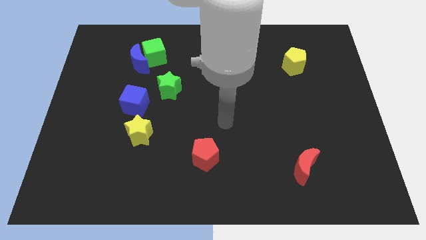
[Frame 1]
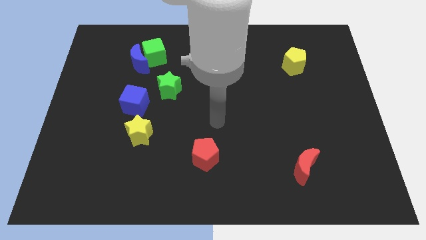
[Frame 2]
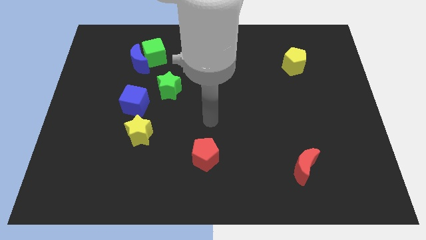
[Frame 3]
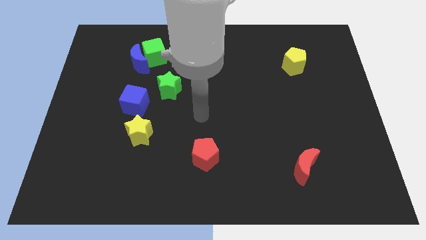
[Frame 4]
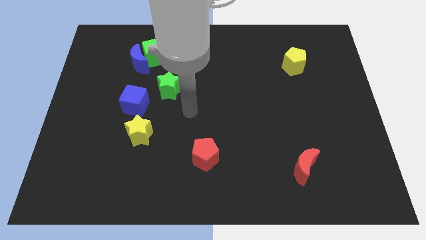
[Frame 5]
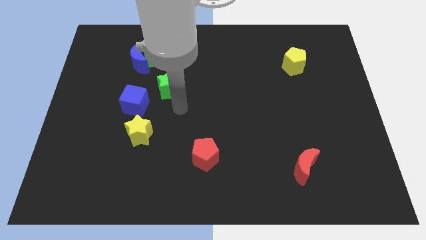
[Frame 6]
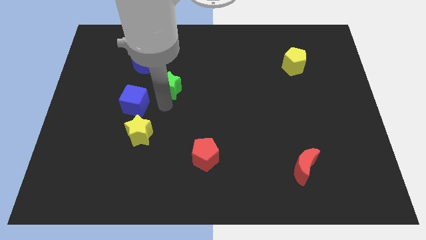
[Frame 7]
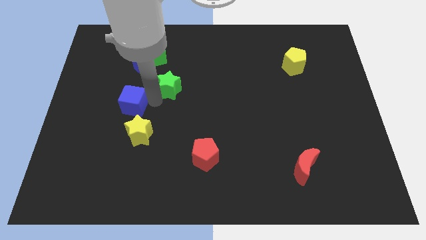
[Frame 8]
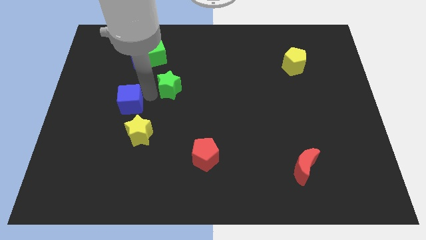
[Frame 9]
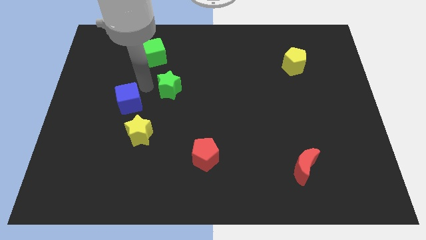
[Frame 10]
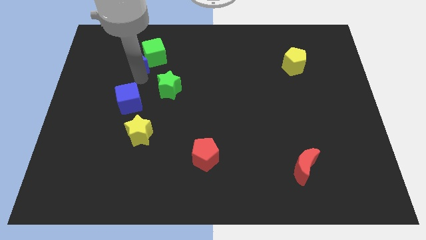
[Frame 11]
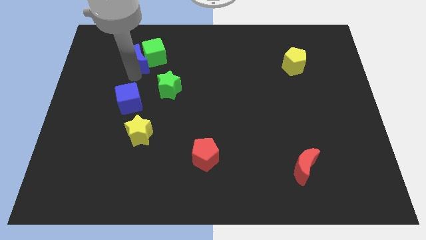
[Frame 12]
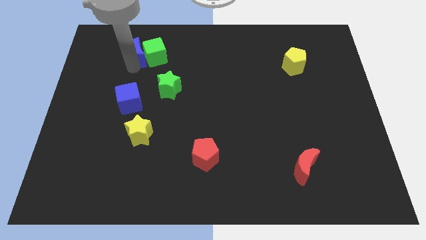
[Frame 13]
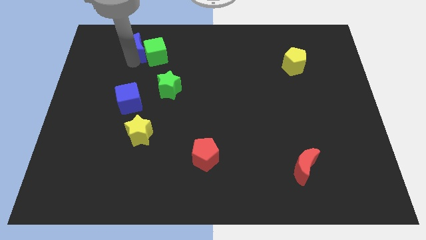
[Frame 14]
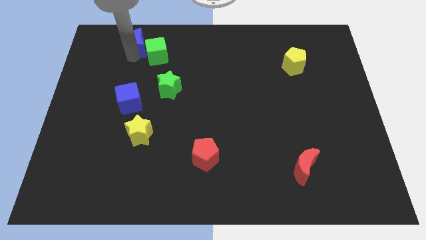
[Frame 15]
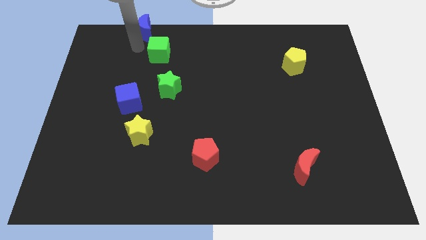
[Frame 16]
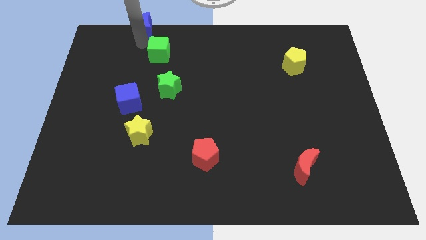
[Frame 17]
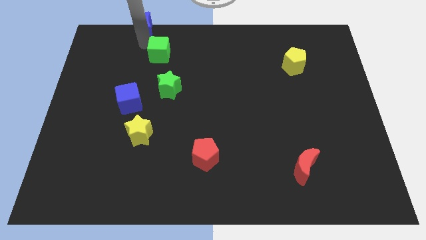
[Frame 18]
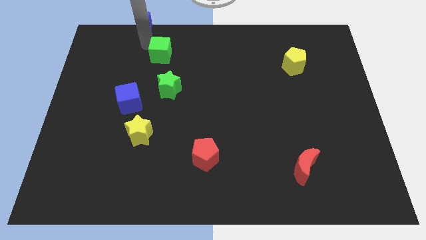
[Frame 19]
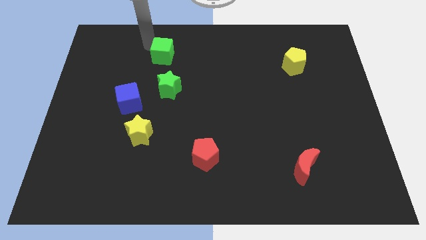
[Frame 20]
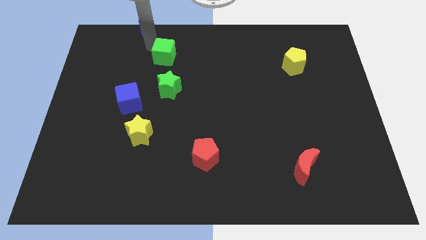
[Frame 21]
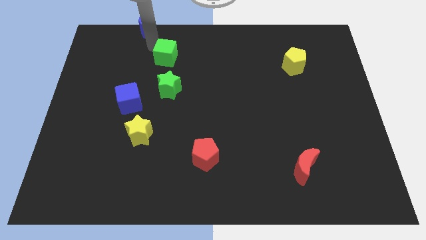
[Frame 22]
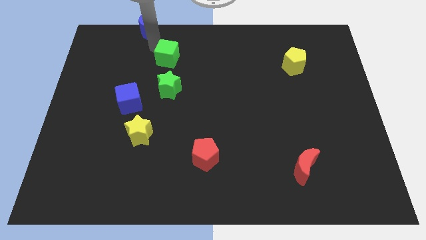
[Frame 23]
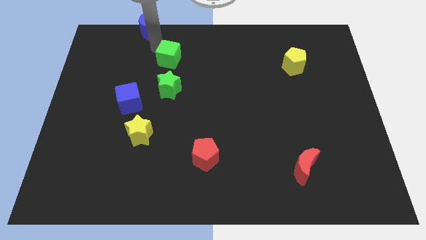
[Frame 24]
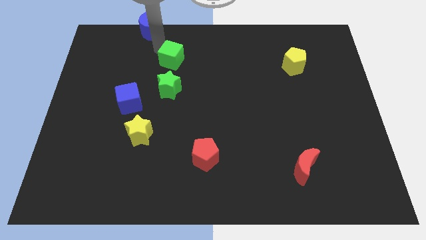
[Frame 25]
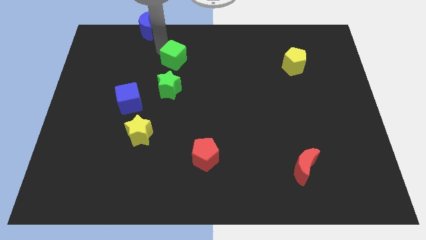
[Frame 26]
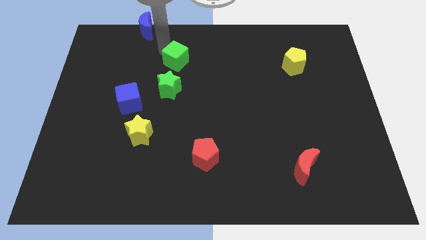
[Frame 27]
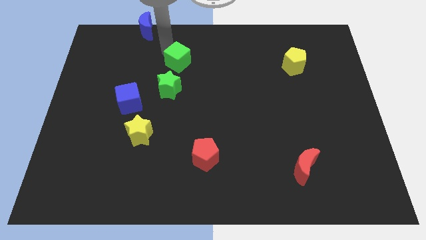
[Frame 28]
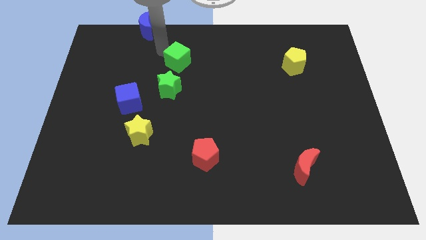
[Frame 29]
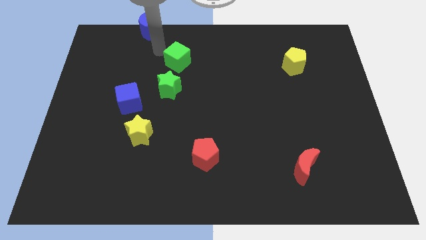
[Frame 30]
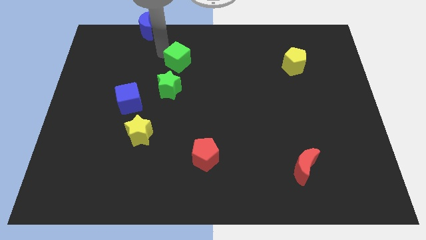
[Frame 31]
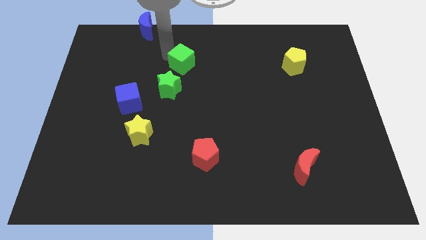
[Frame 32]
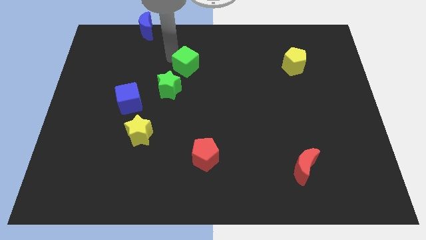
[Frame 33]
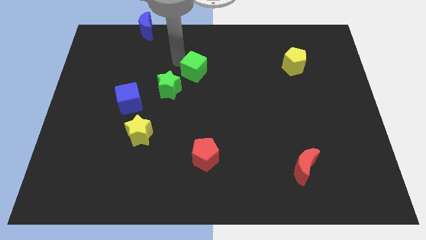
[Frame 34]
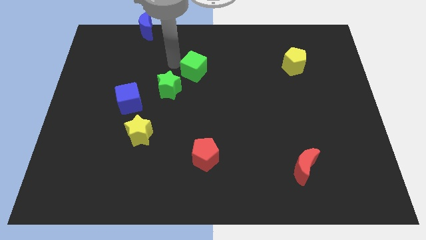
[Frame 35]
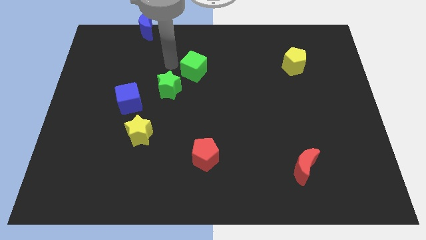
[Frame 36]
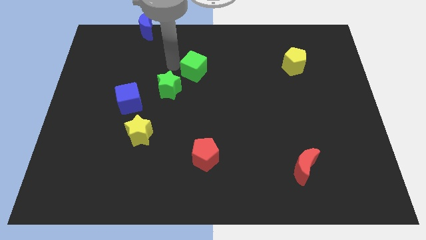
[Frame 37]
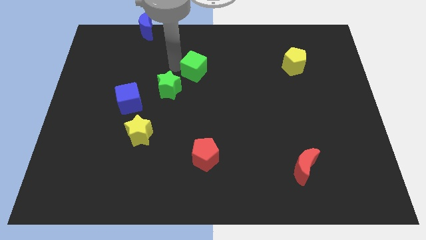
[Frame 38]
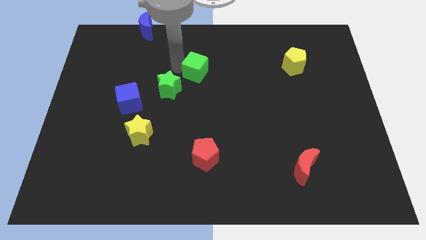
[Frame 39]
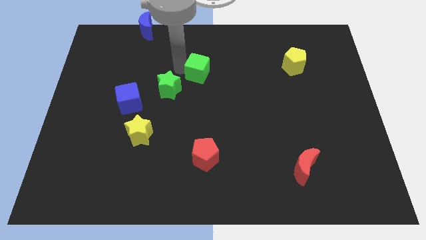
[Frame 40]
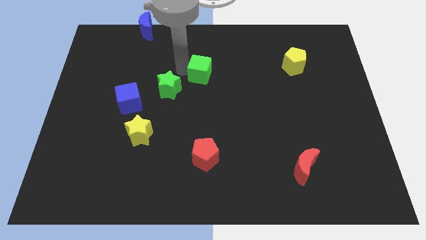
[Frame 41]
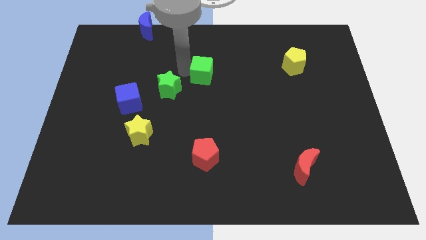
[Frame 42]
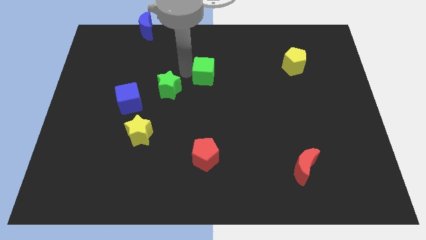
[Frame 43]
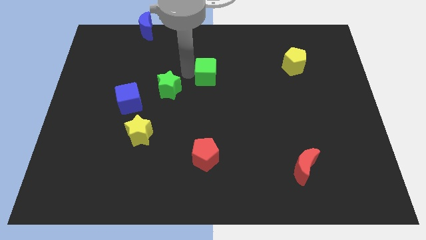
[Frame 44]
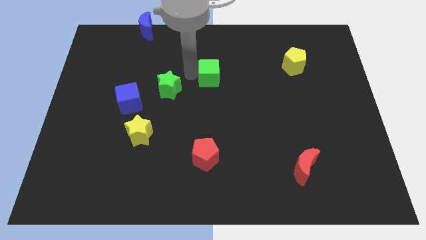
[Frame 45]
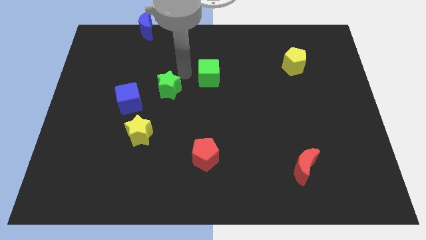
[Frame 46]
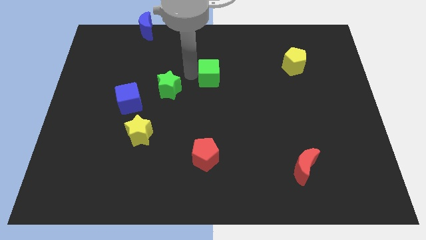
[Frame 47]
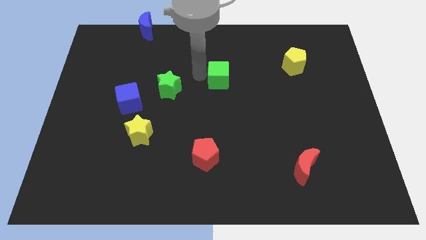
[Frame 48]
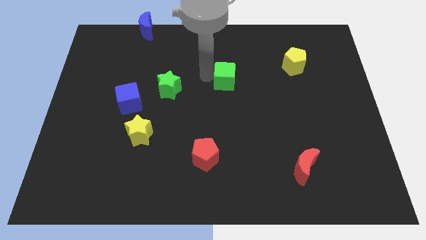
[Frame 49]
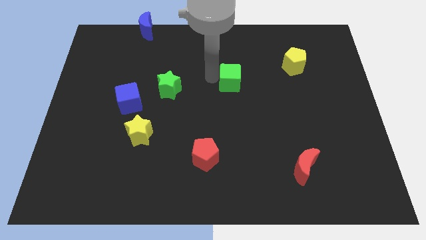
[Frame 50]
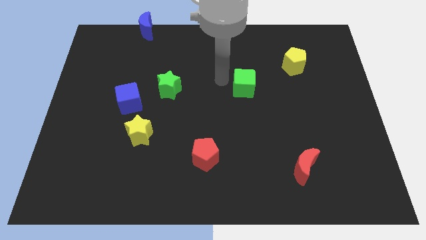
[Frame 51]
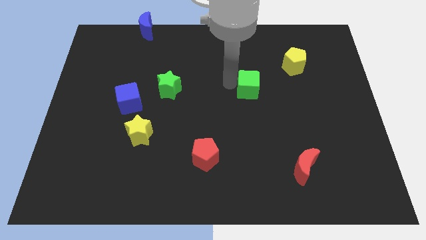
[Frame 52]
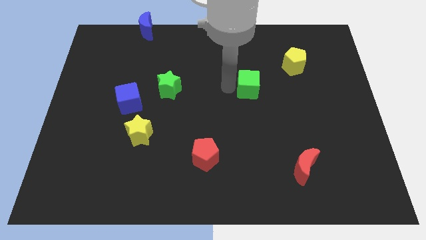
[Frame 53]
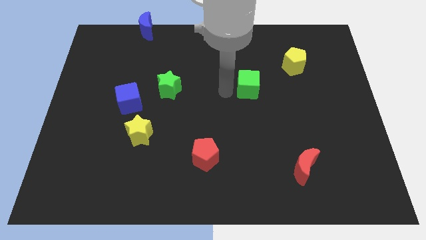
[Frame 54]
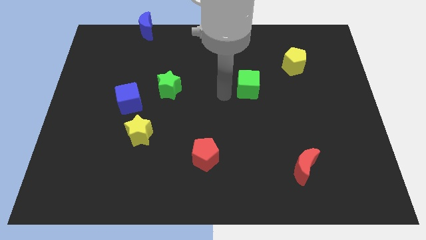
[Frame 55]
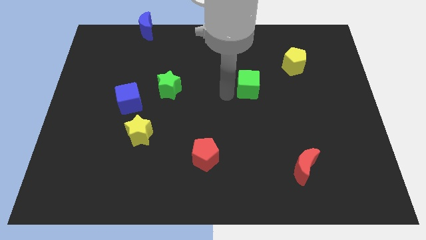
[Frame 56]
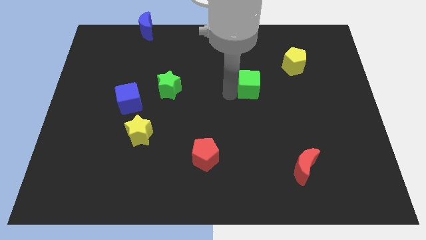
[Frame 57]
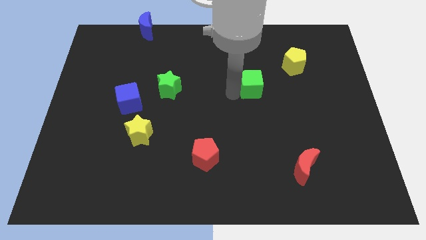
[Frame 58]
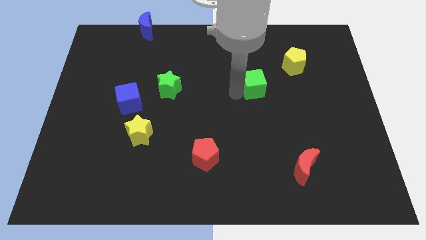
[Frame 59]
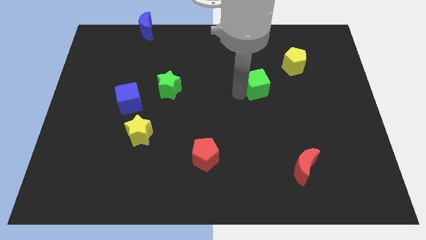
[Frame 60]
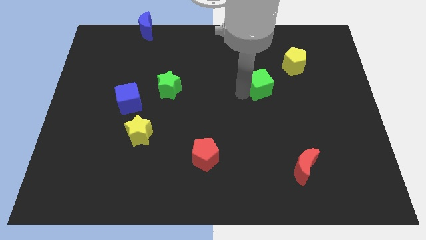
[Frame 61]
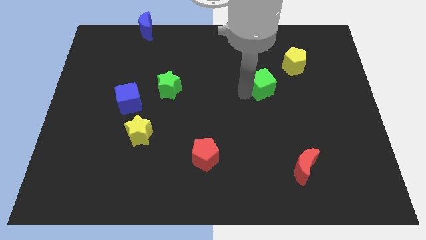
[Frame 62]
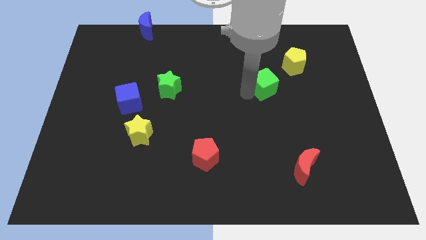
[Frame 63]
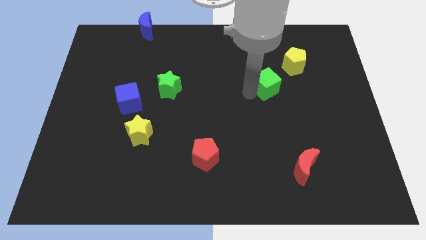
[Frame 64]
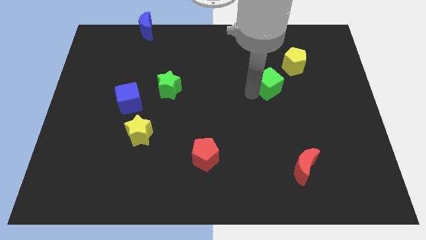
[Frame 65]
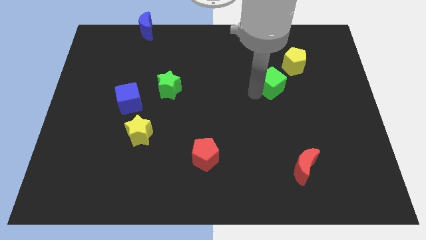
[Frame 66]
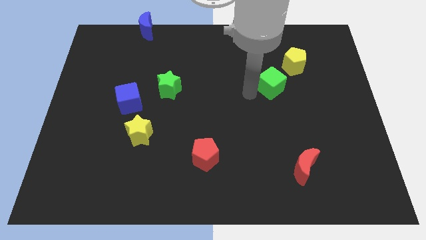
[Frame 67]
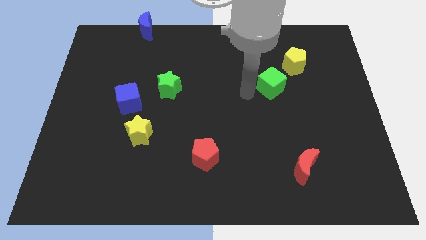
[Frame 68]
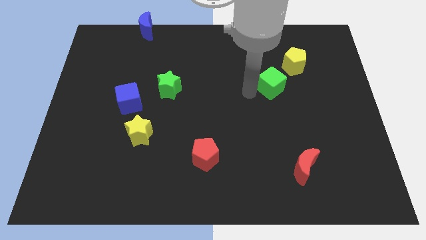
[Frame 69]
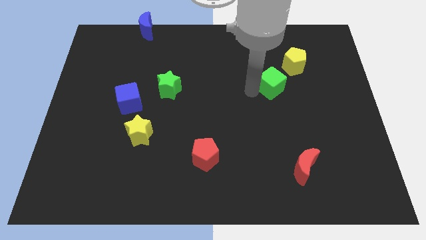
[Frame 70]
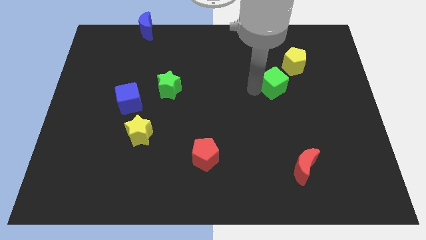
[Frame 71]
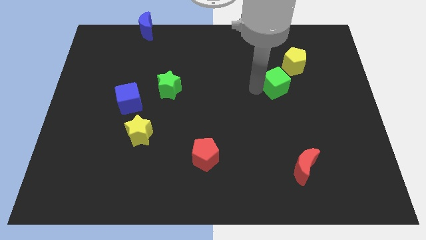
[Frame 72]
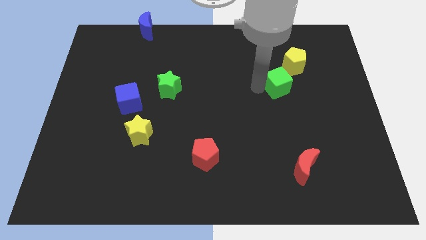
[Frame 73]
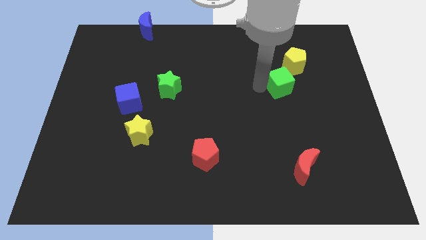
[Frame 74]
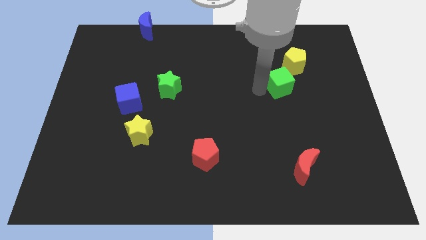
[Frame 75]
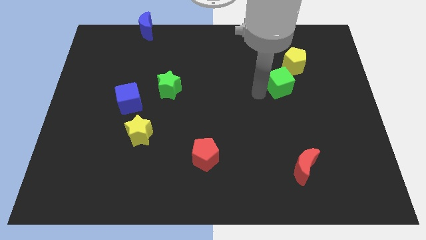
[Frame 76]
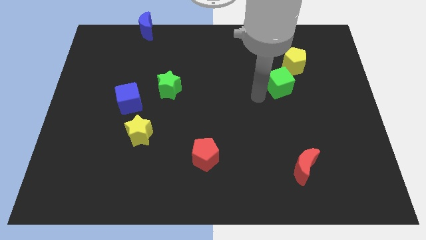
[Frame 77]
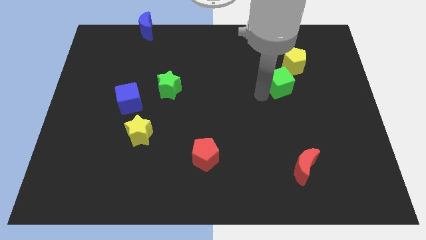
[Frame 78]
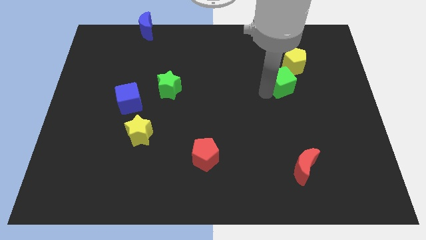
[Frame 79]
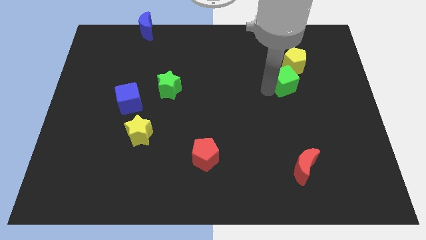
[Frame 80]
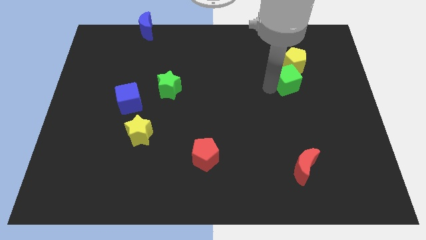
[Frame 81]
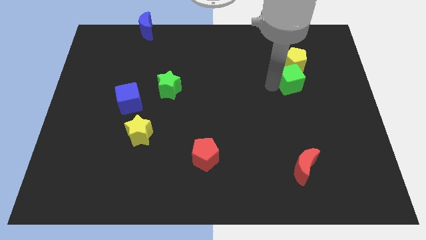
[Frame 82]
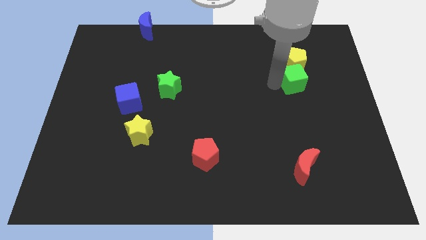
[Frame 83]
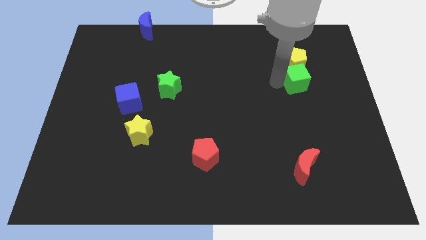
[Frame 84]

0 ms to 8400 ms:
move the green cube diagonally down and to the right of the yellow pentagon
